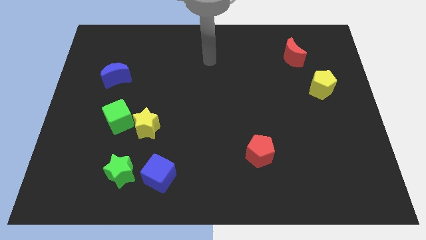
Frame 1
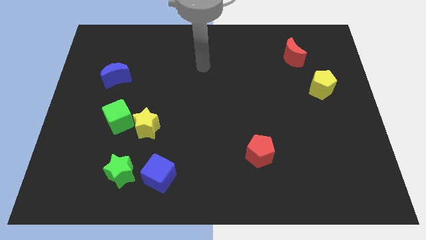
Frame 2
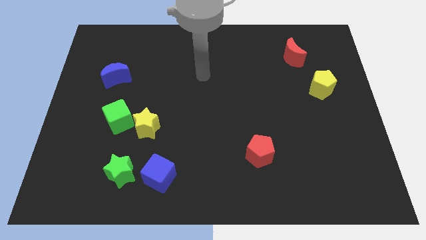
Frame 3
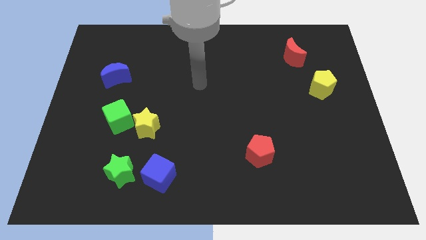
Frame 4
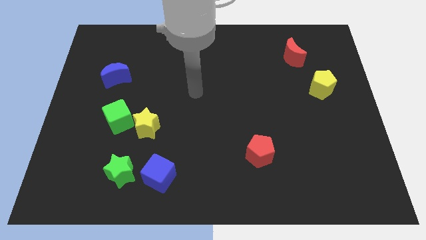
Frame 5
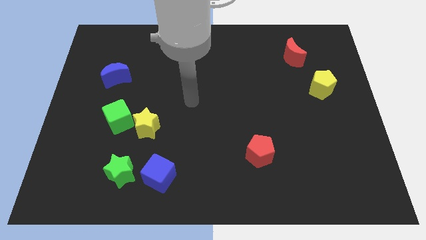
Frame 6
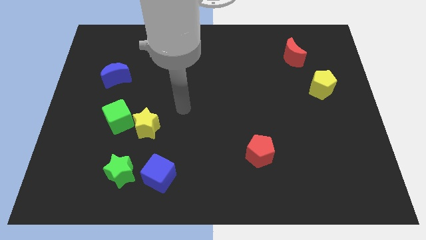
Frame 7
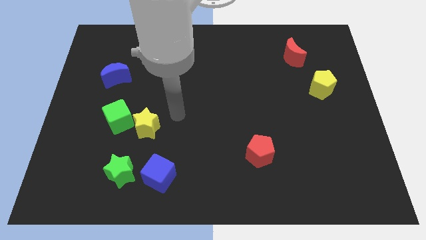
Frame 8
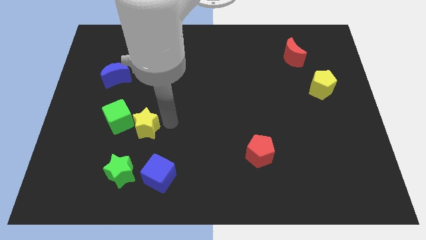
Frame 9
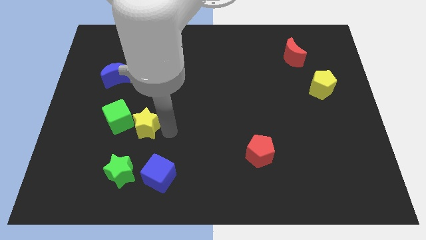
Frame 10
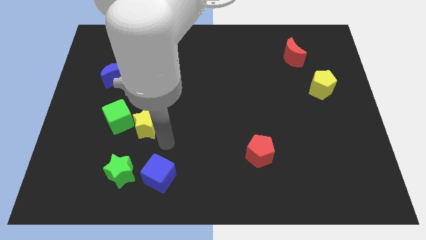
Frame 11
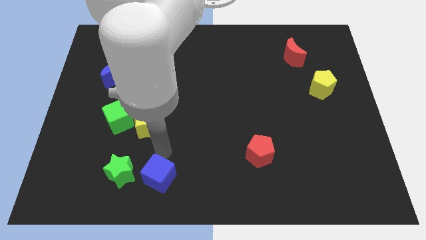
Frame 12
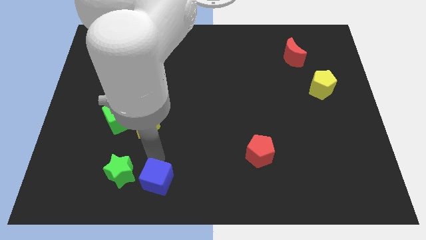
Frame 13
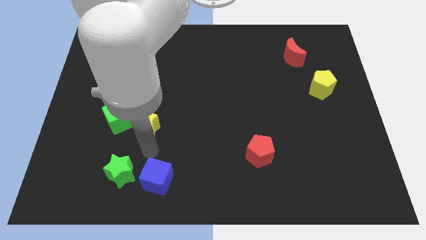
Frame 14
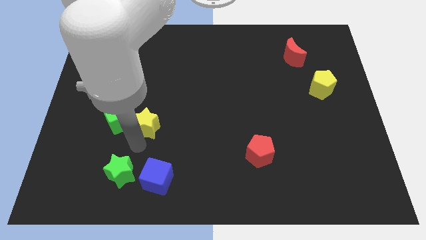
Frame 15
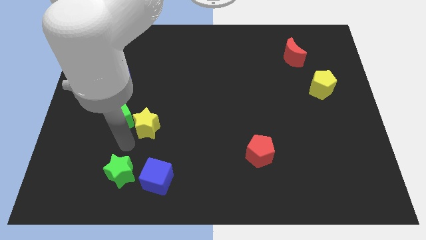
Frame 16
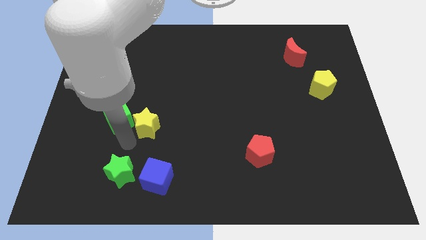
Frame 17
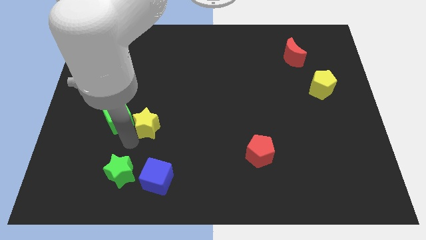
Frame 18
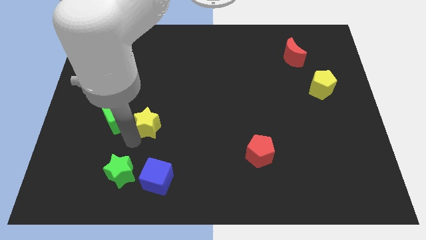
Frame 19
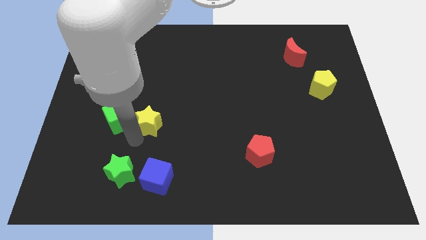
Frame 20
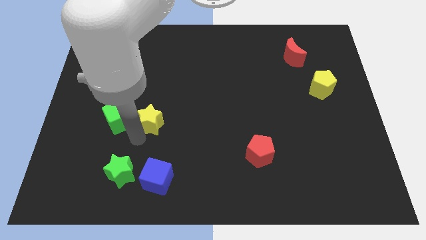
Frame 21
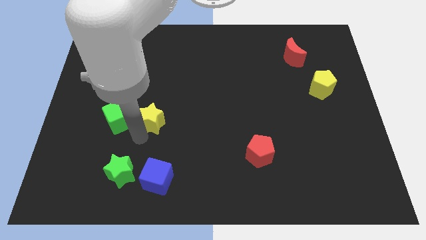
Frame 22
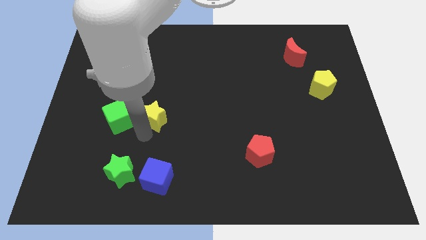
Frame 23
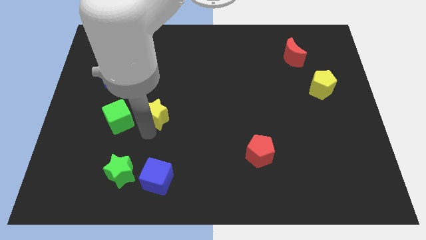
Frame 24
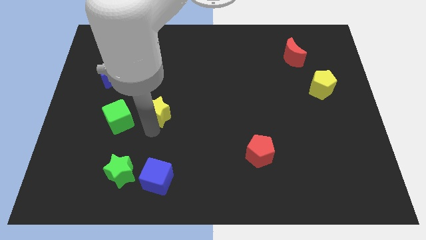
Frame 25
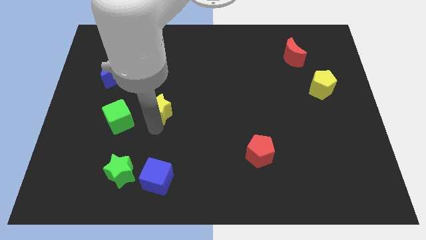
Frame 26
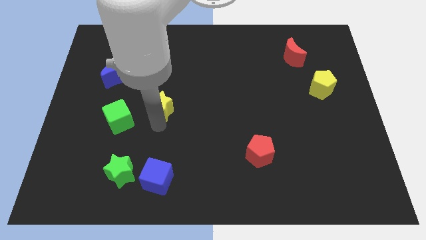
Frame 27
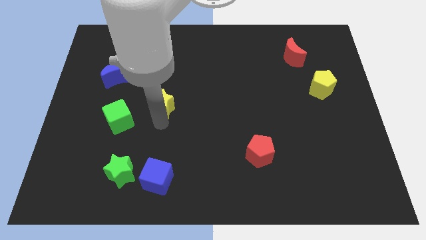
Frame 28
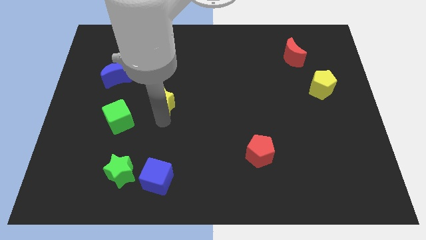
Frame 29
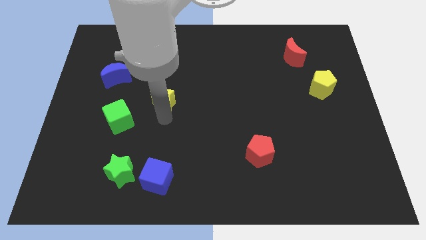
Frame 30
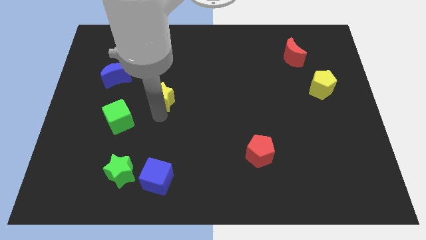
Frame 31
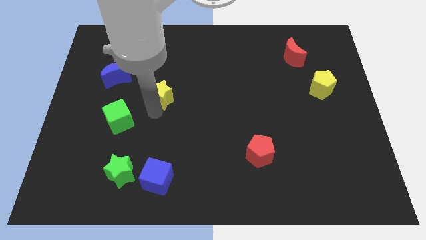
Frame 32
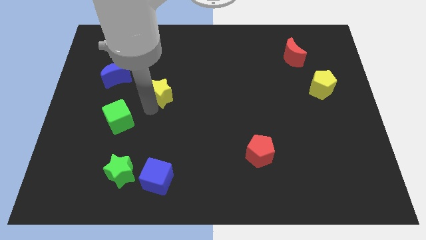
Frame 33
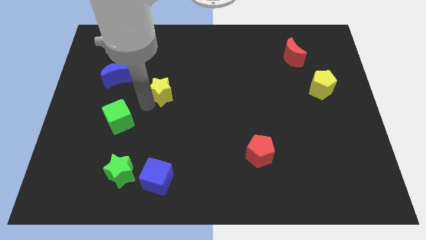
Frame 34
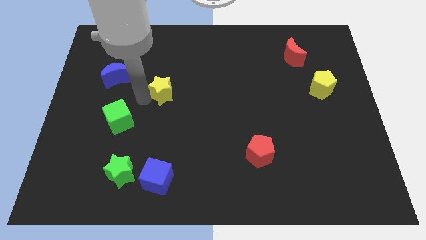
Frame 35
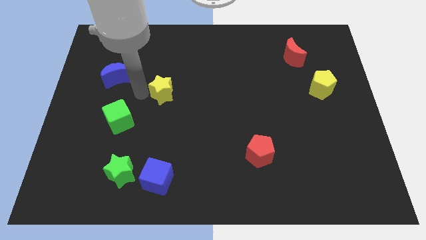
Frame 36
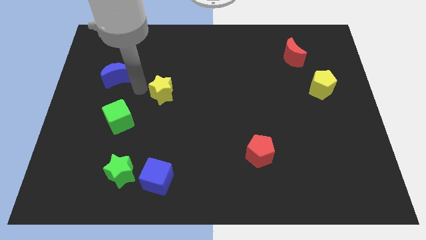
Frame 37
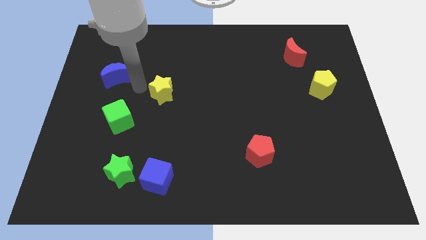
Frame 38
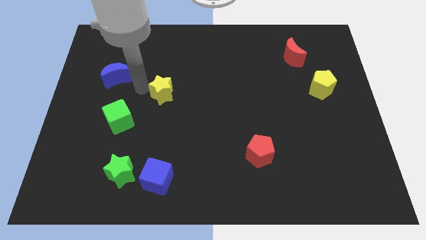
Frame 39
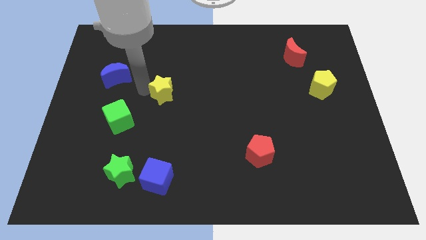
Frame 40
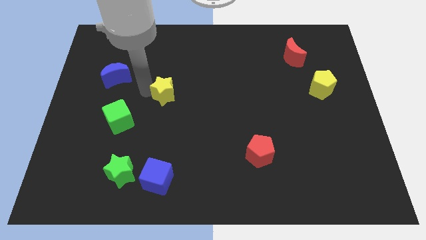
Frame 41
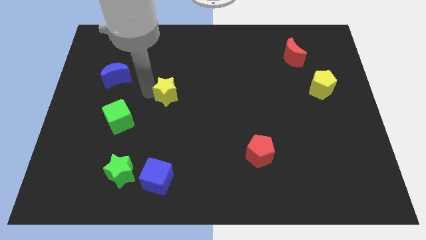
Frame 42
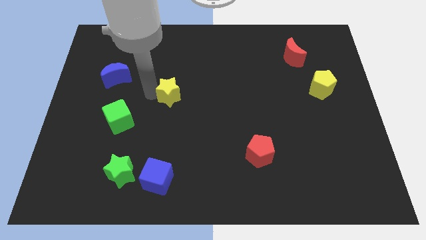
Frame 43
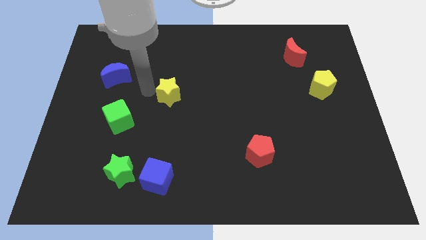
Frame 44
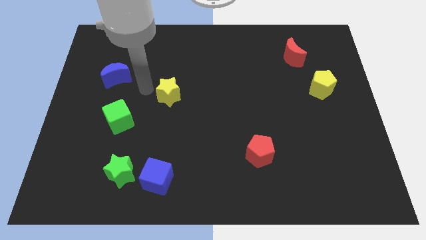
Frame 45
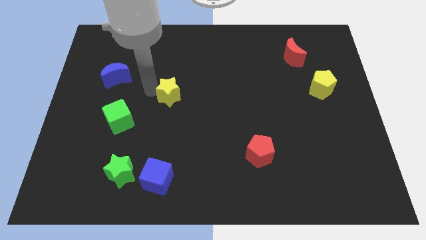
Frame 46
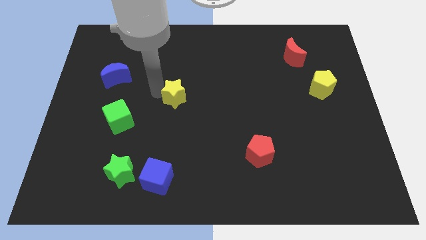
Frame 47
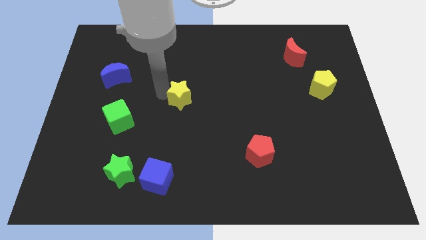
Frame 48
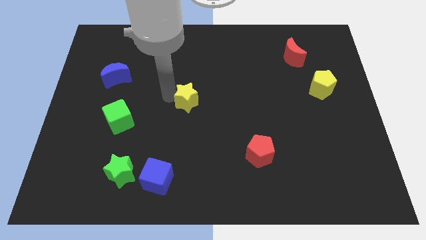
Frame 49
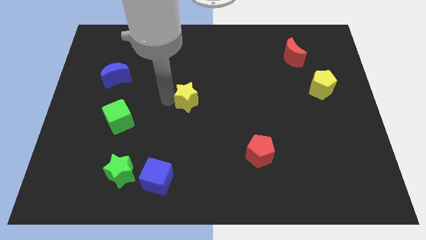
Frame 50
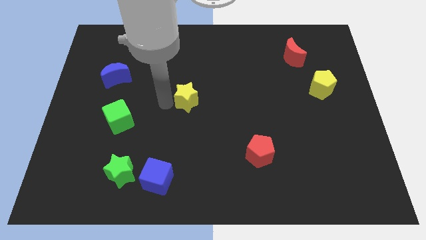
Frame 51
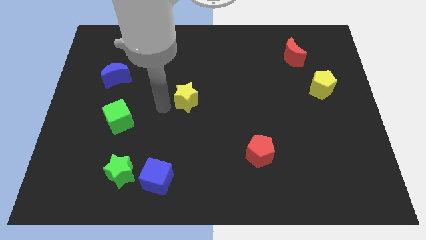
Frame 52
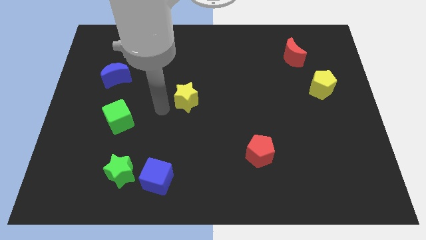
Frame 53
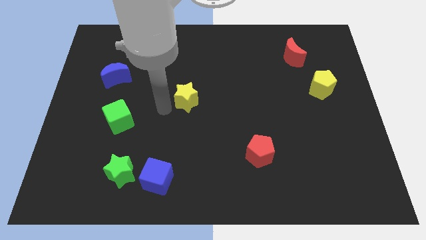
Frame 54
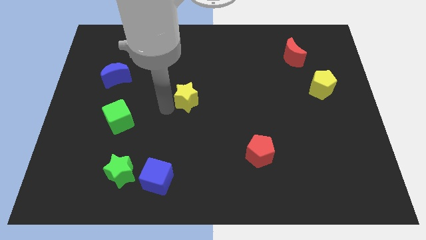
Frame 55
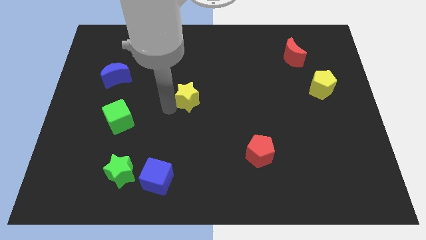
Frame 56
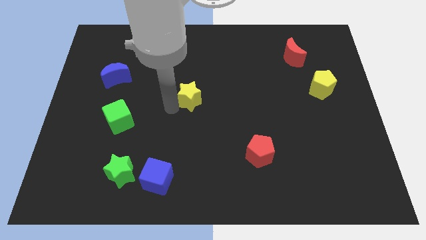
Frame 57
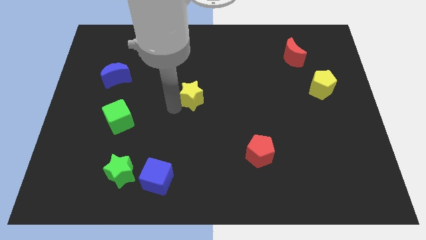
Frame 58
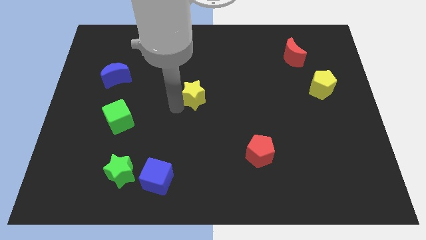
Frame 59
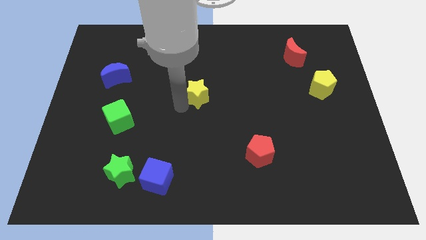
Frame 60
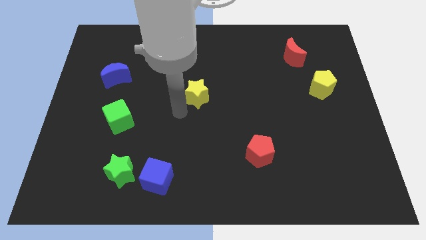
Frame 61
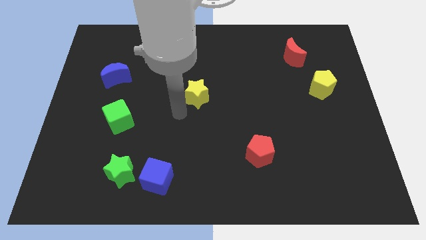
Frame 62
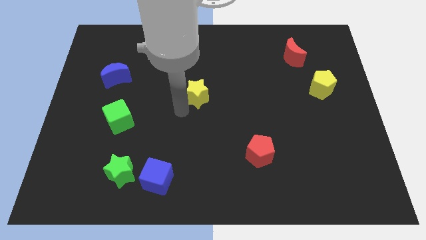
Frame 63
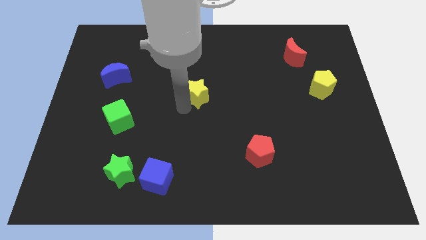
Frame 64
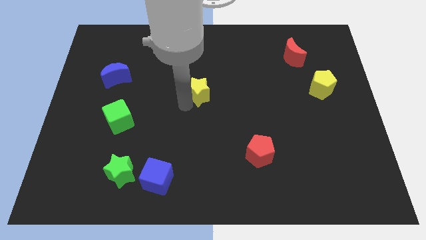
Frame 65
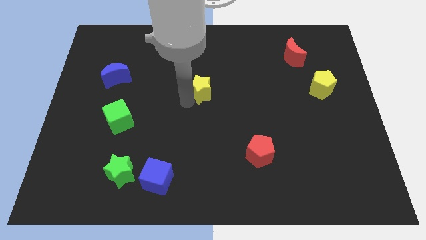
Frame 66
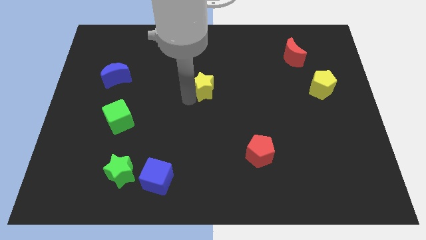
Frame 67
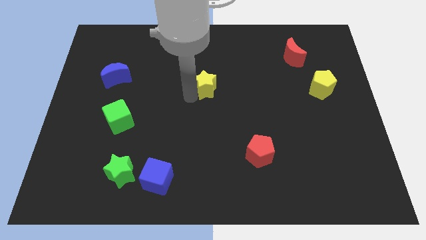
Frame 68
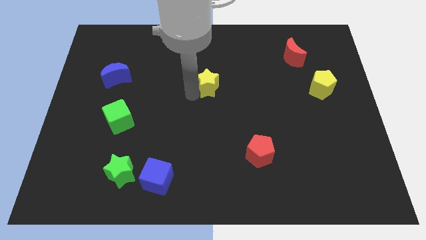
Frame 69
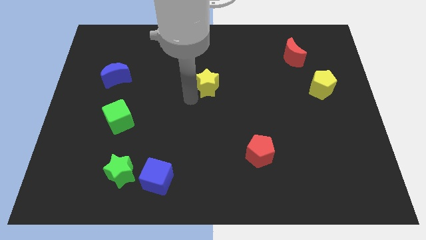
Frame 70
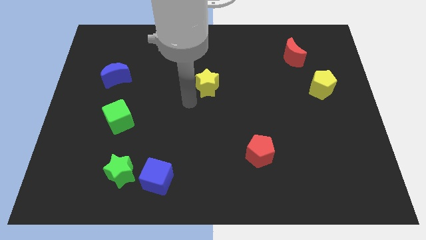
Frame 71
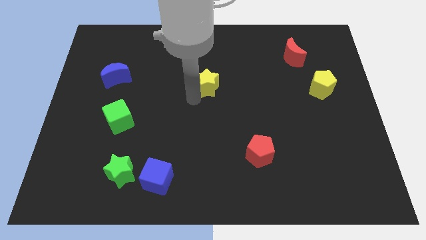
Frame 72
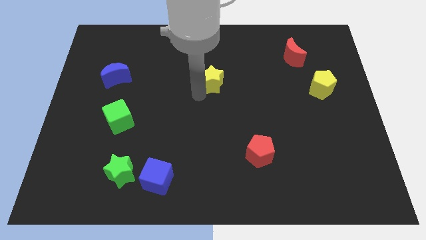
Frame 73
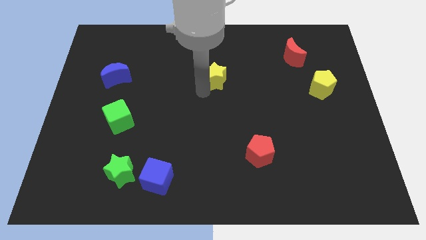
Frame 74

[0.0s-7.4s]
move the yellow star upwards and right diagonally

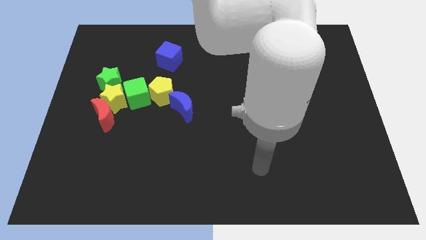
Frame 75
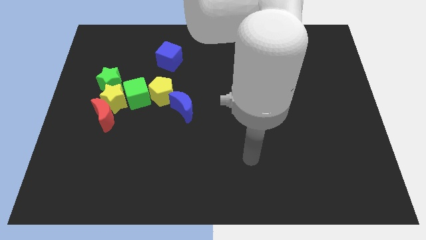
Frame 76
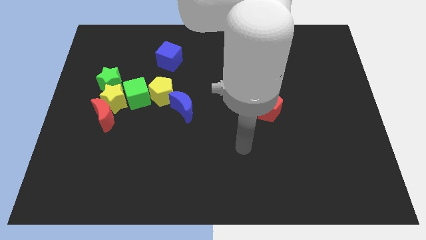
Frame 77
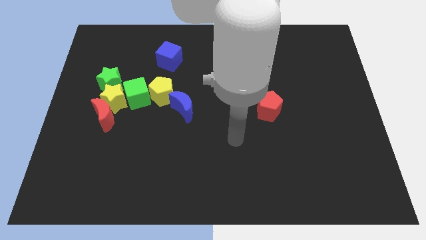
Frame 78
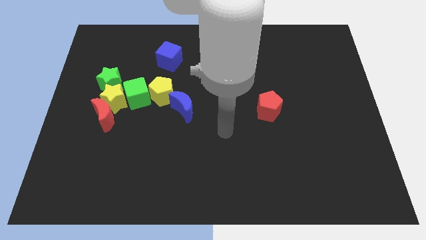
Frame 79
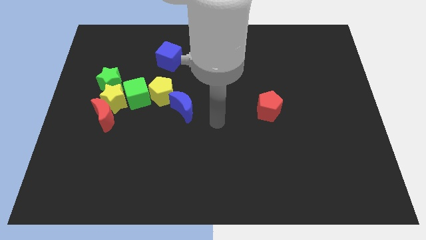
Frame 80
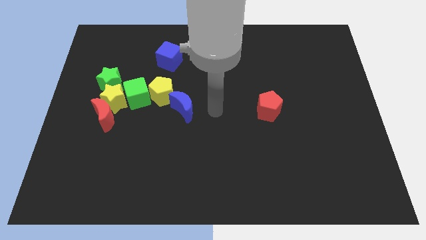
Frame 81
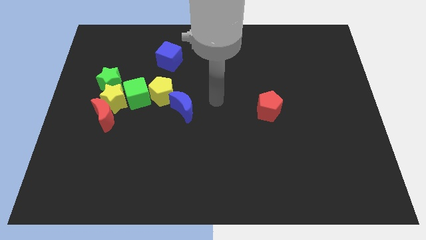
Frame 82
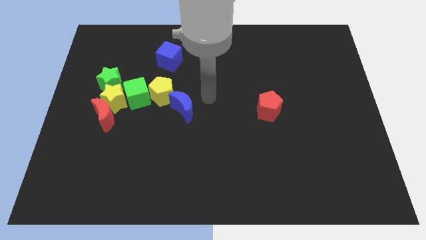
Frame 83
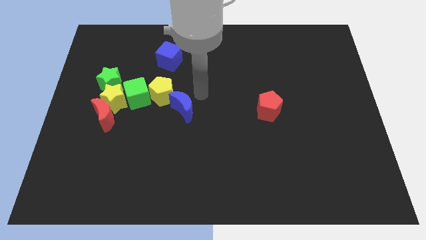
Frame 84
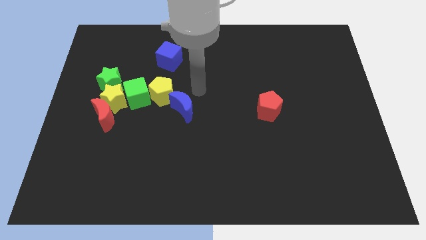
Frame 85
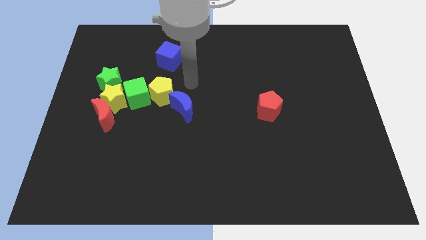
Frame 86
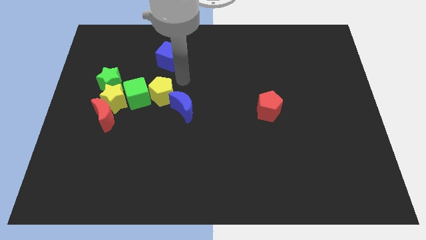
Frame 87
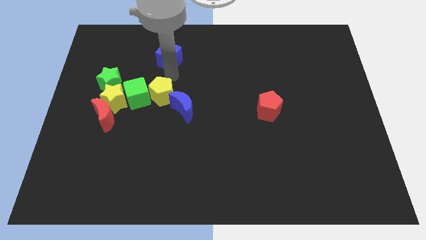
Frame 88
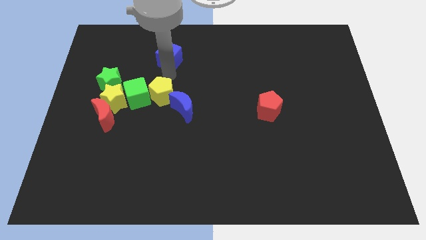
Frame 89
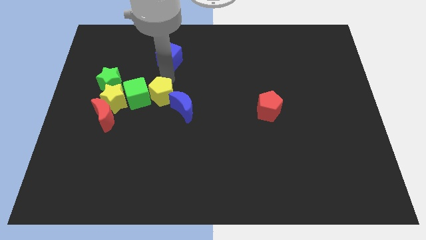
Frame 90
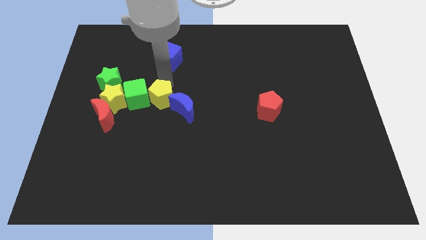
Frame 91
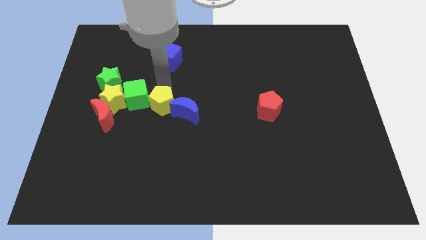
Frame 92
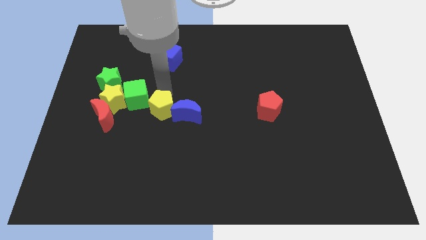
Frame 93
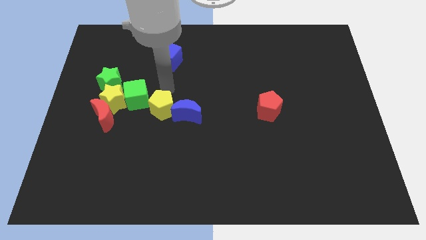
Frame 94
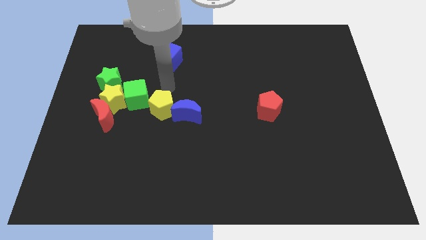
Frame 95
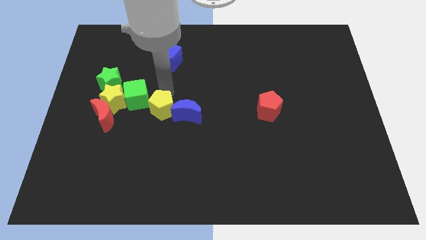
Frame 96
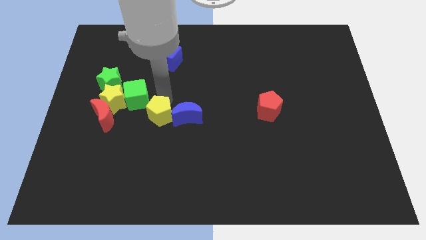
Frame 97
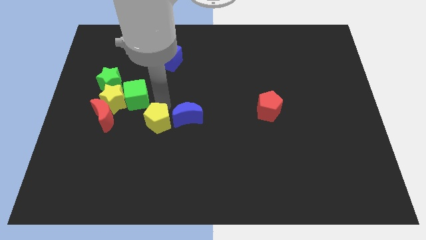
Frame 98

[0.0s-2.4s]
push the yellow pentagon a bit downwards
